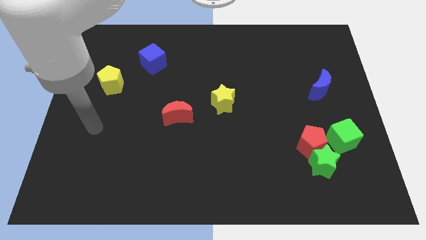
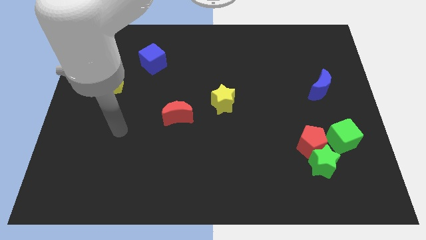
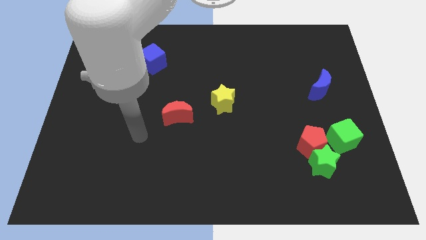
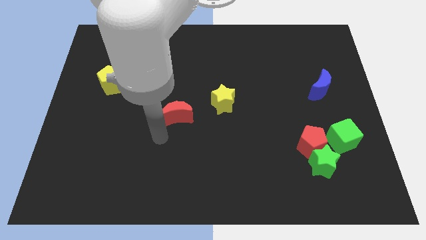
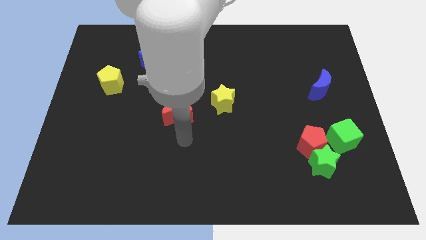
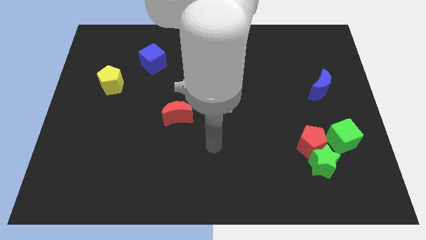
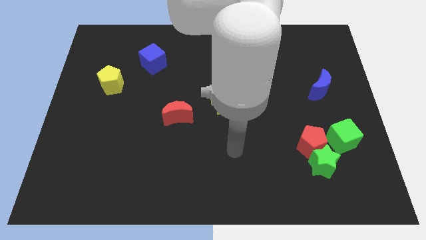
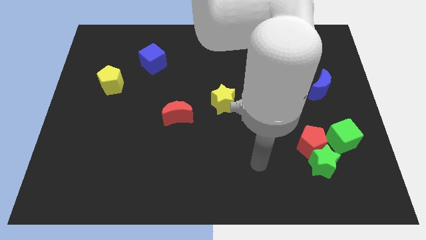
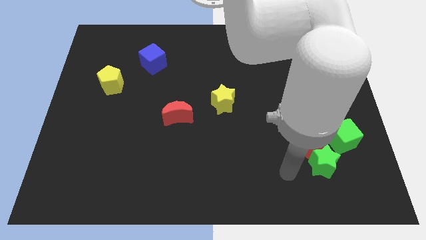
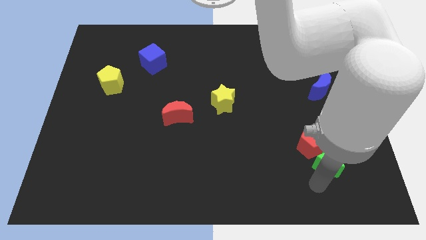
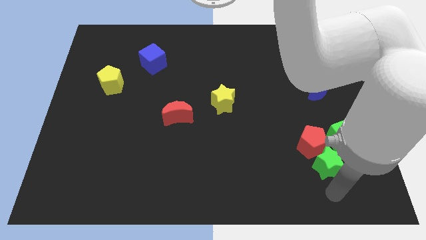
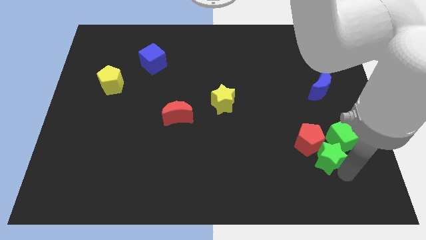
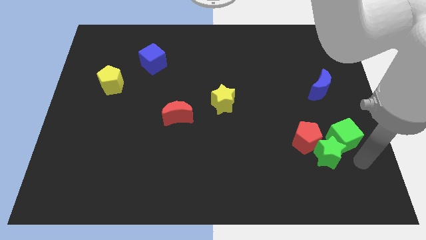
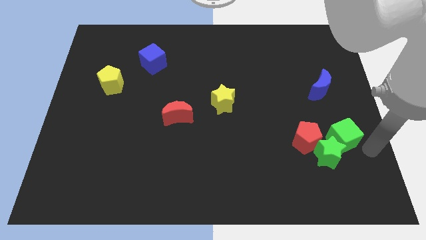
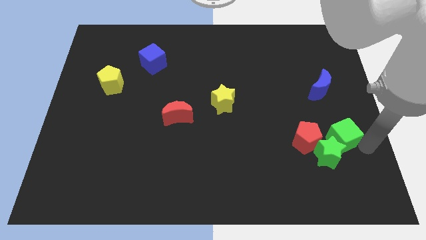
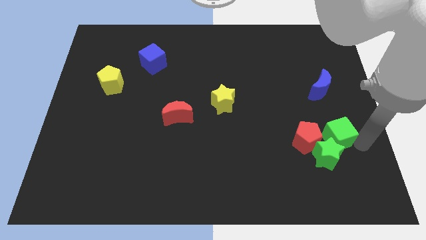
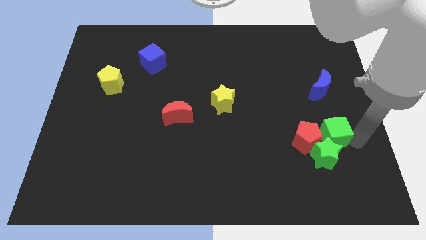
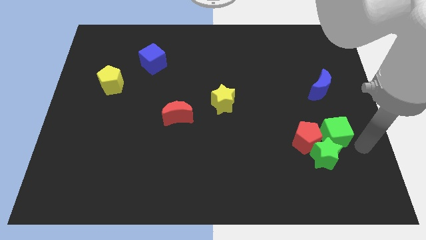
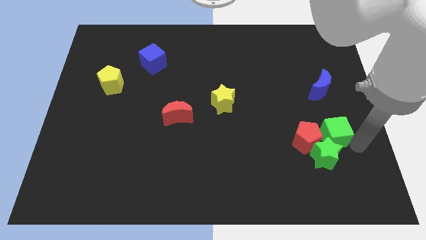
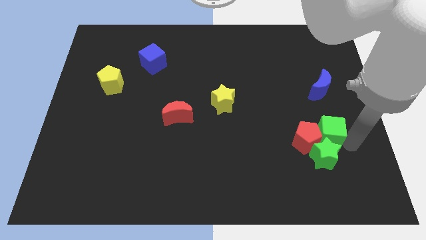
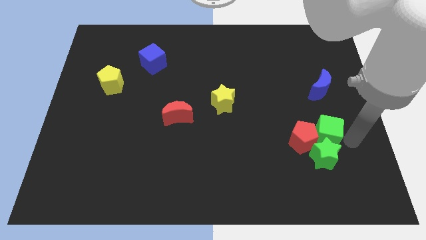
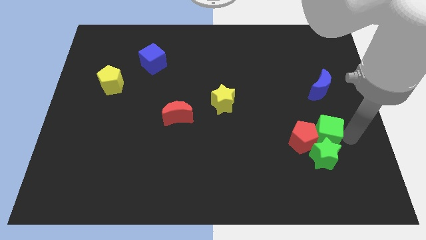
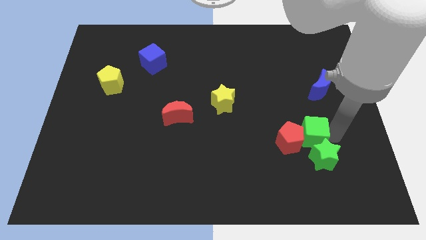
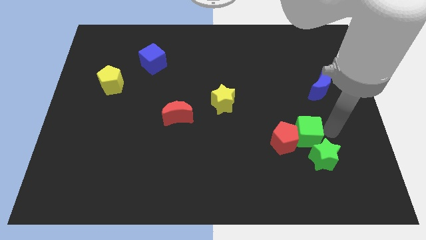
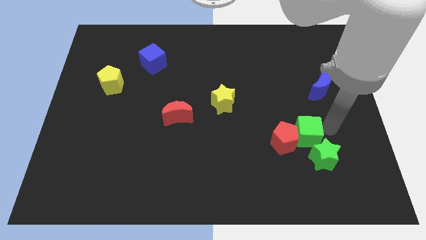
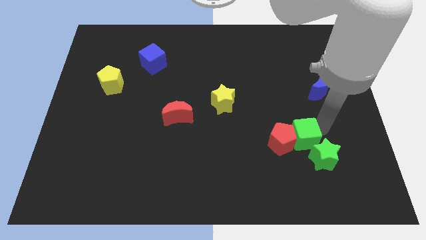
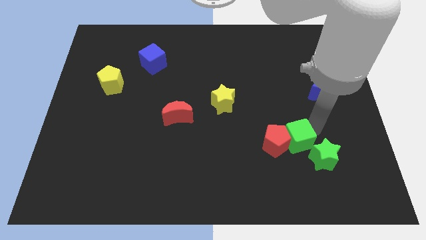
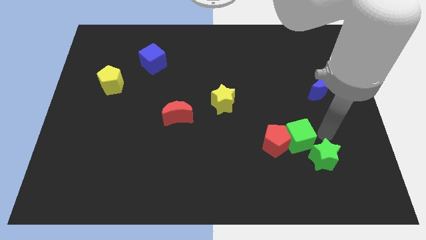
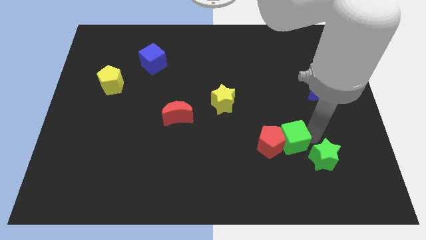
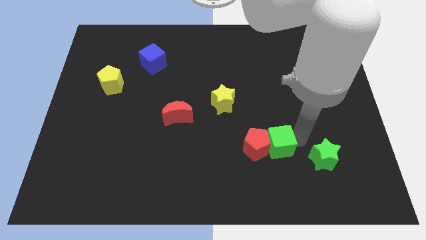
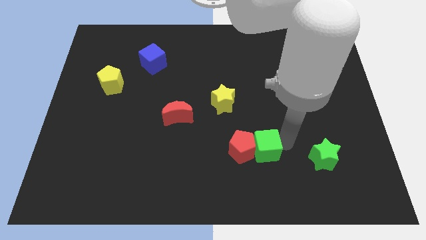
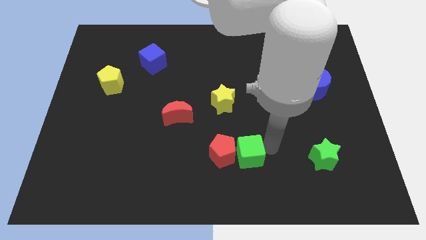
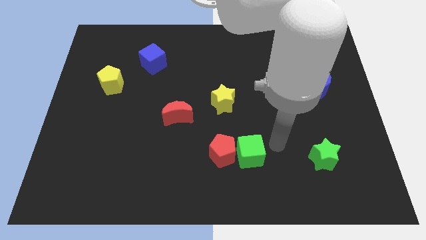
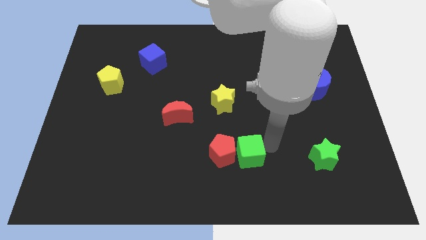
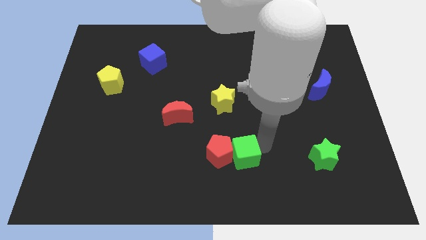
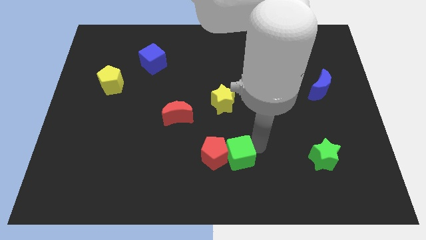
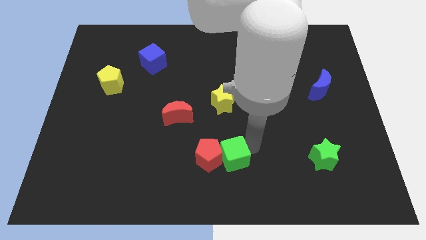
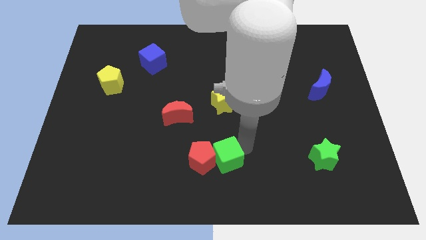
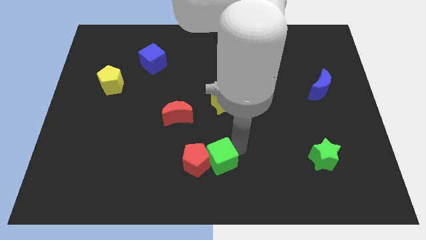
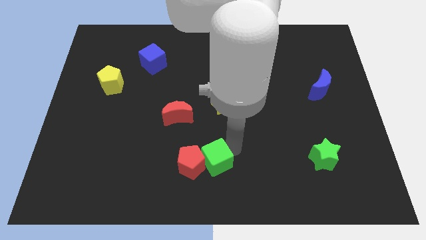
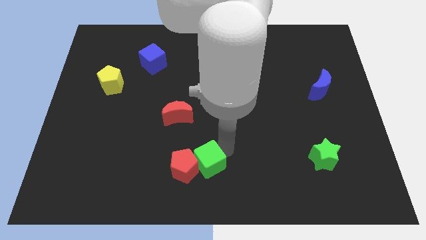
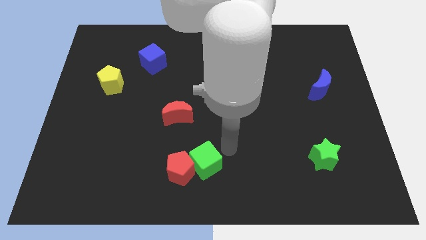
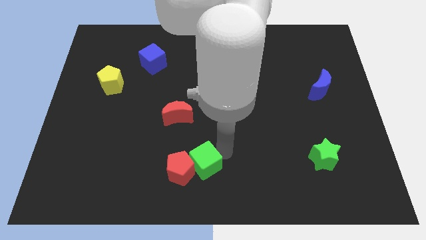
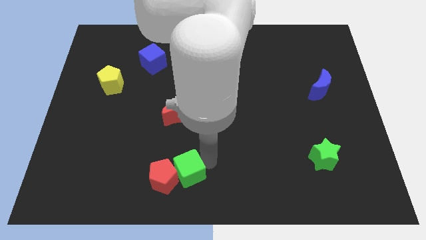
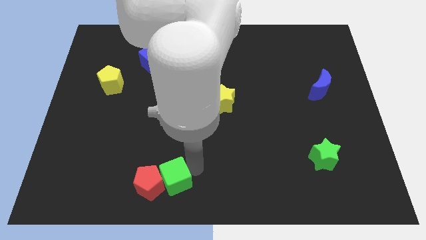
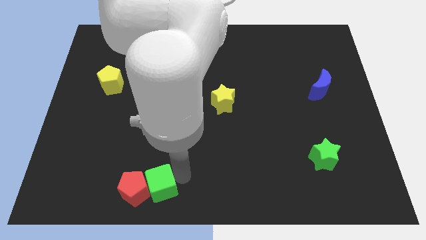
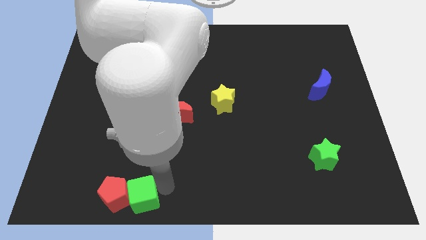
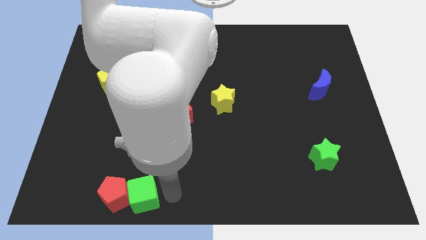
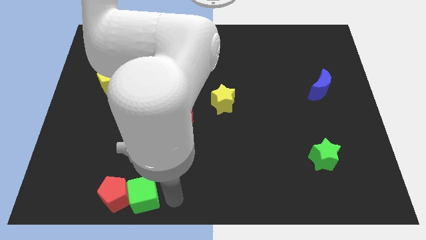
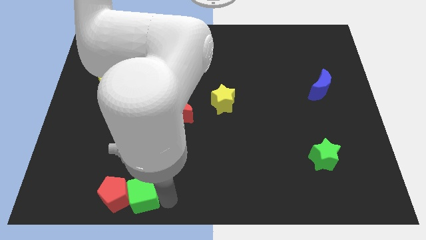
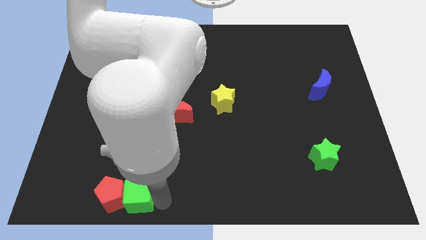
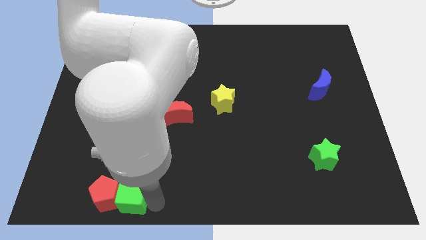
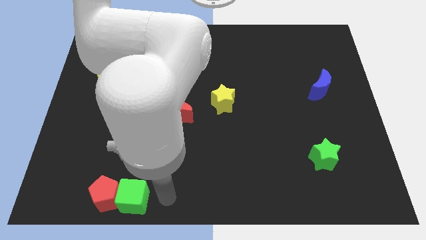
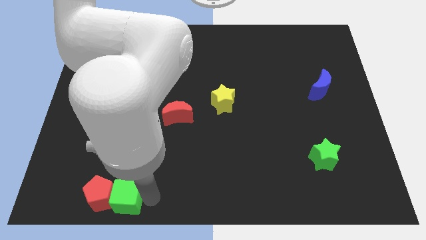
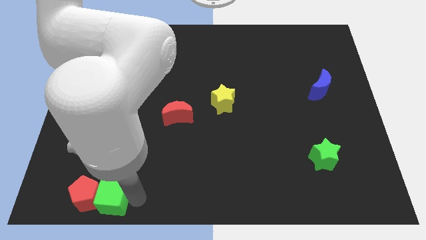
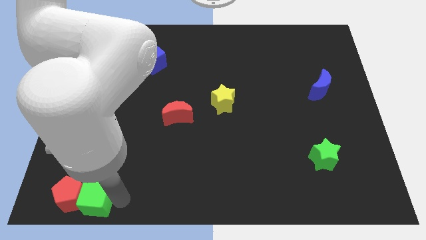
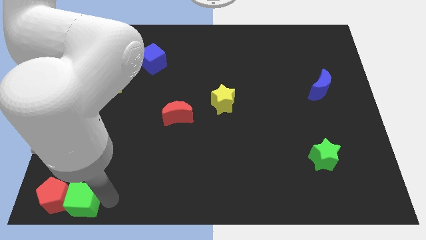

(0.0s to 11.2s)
move the green cube to the bottom left corner
